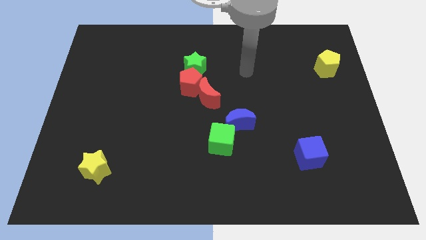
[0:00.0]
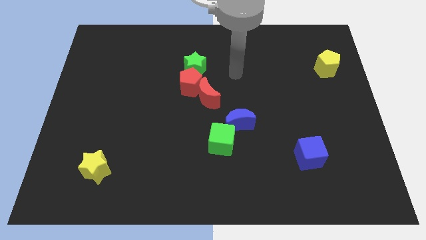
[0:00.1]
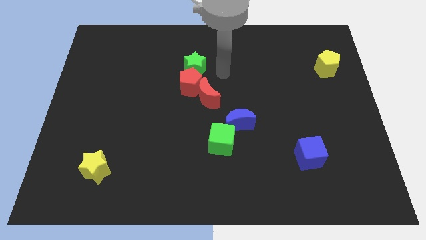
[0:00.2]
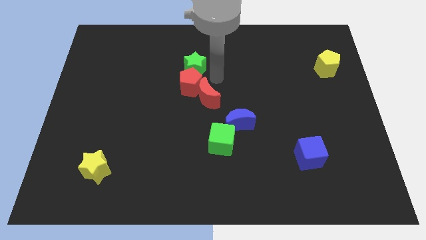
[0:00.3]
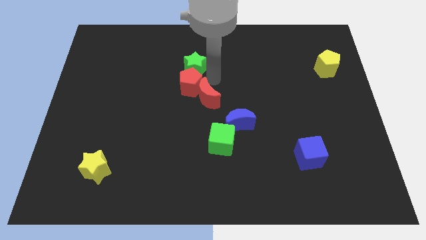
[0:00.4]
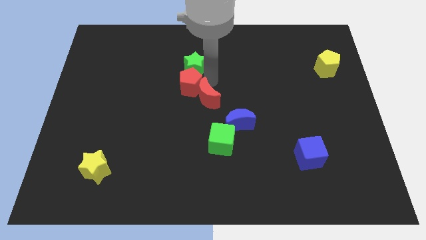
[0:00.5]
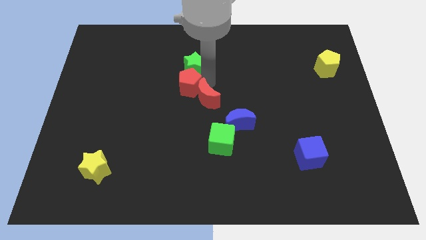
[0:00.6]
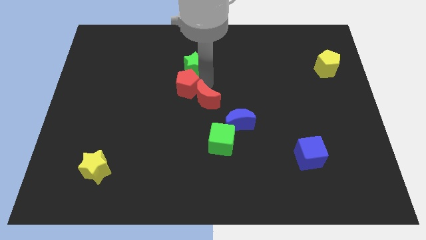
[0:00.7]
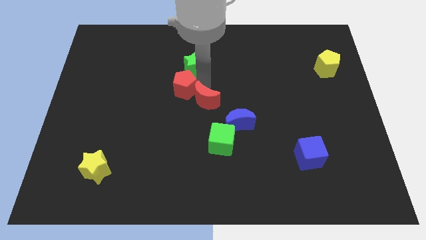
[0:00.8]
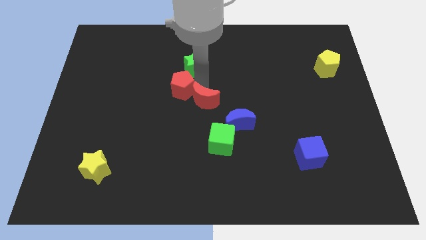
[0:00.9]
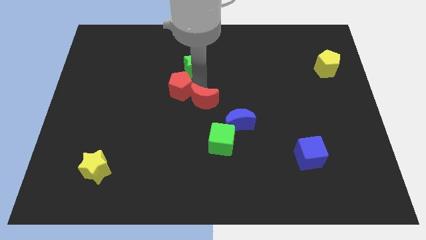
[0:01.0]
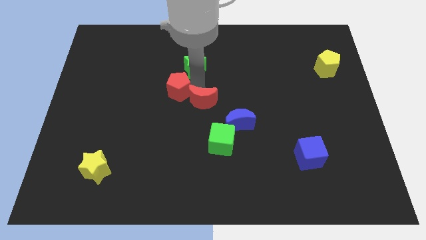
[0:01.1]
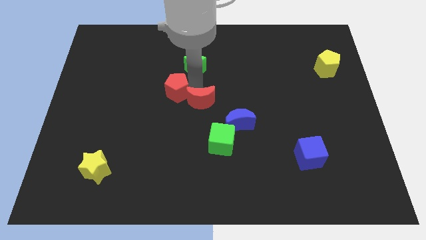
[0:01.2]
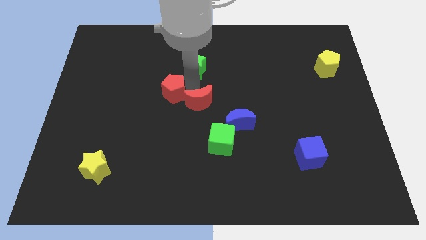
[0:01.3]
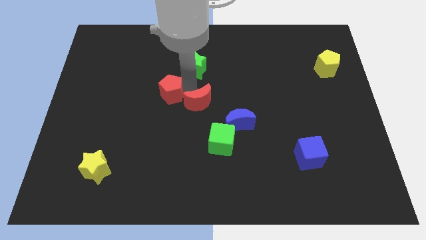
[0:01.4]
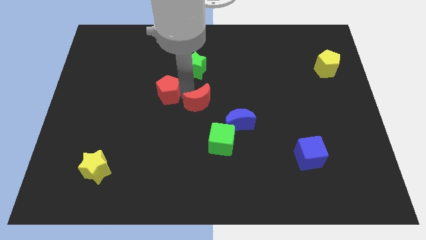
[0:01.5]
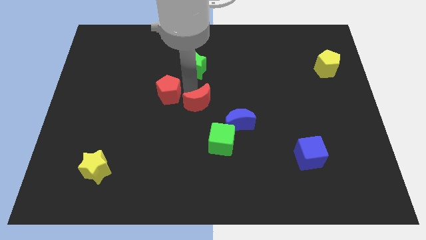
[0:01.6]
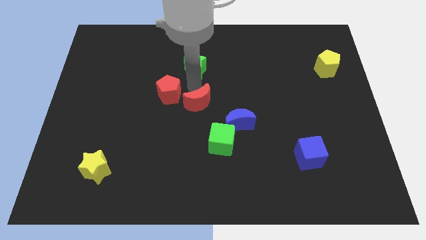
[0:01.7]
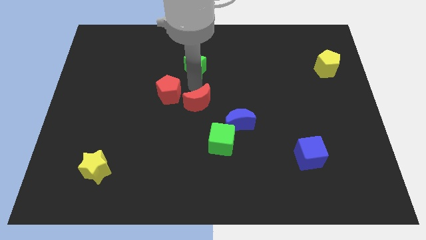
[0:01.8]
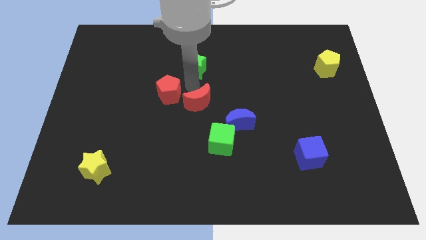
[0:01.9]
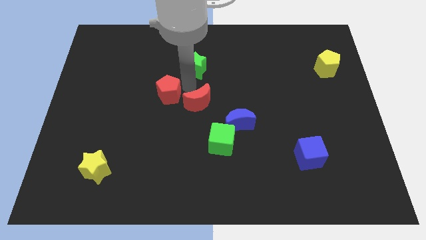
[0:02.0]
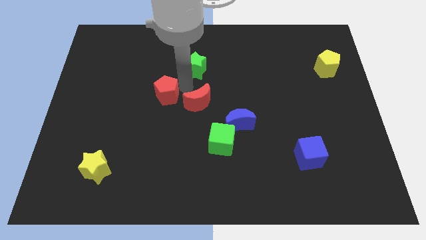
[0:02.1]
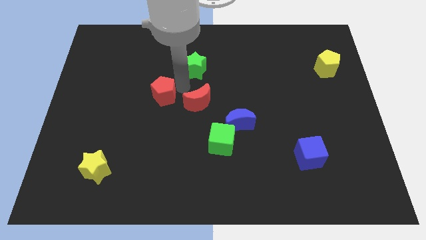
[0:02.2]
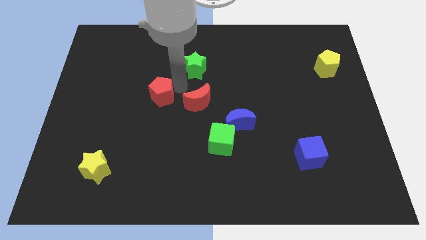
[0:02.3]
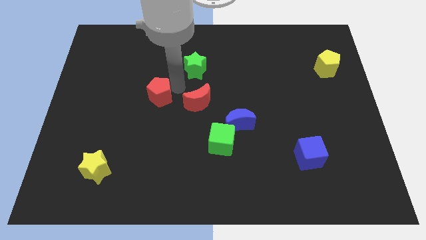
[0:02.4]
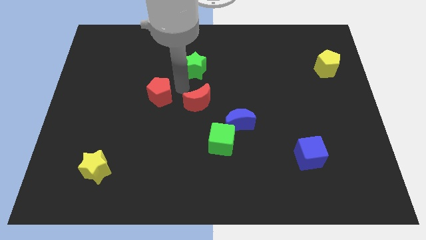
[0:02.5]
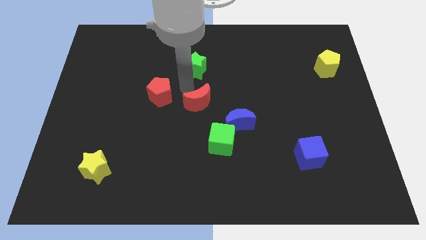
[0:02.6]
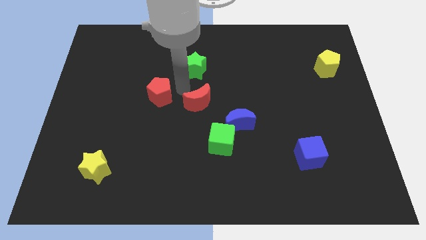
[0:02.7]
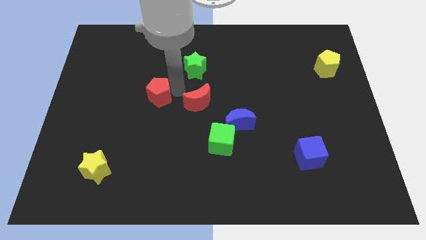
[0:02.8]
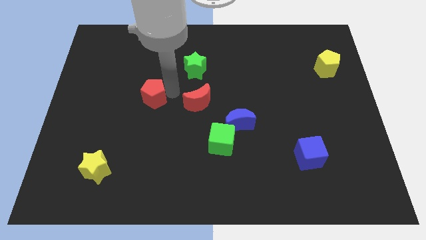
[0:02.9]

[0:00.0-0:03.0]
move the red pentagon away from the red moon and green star

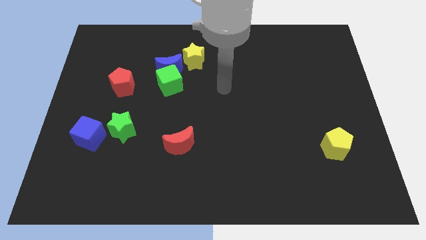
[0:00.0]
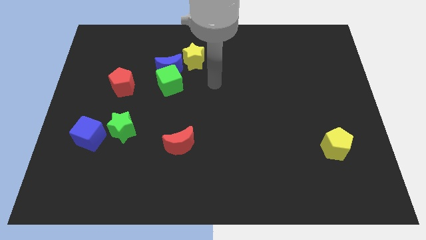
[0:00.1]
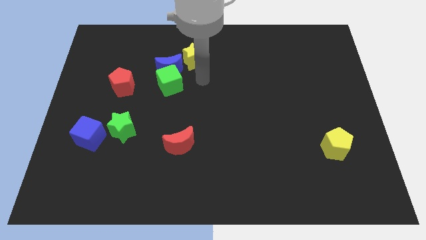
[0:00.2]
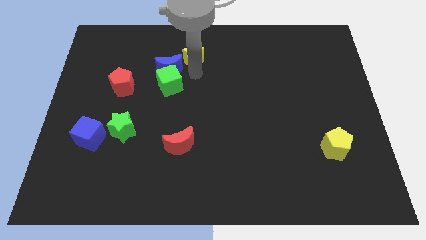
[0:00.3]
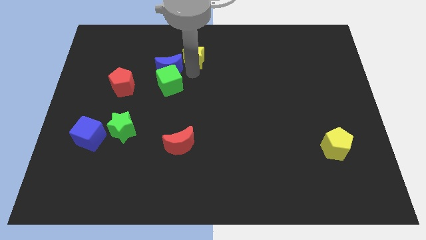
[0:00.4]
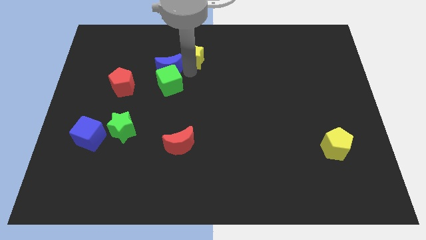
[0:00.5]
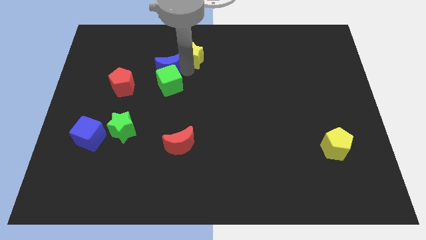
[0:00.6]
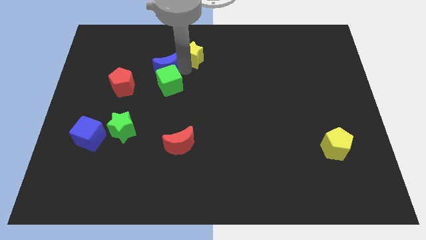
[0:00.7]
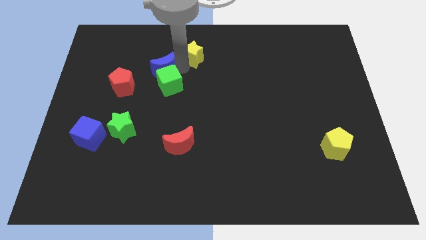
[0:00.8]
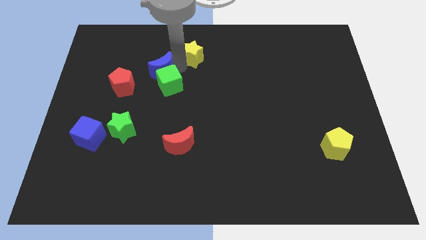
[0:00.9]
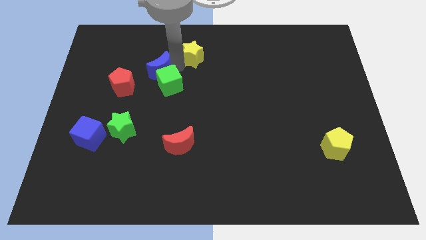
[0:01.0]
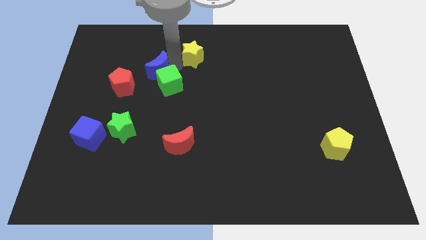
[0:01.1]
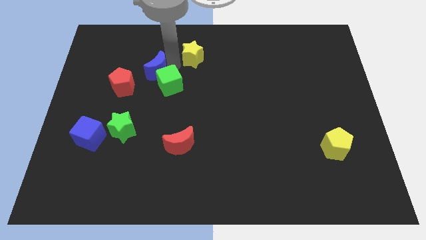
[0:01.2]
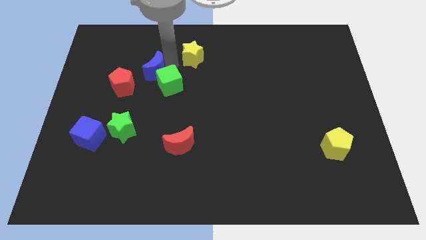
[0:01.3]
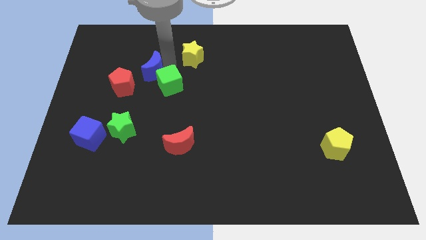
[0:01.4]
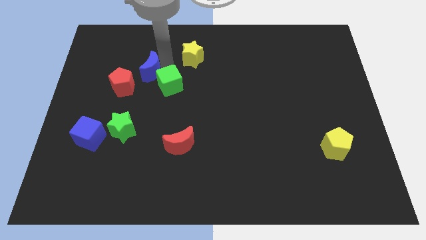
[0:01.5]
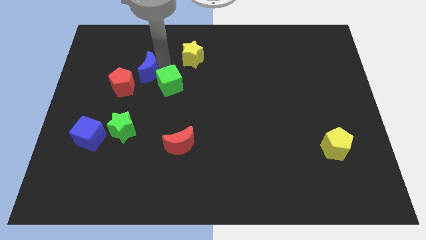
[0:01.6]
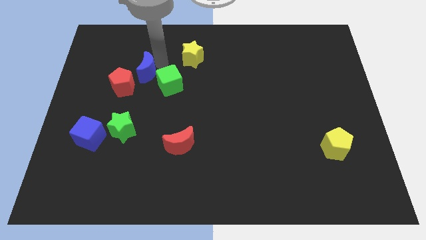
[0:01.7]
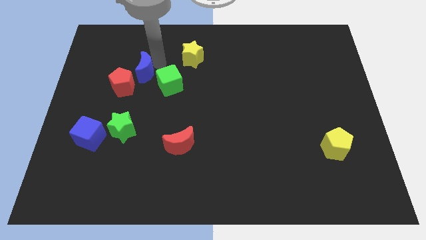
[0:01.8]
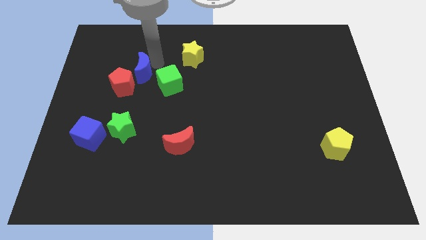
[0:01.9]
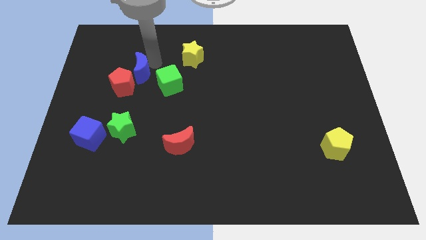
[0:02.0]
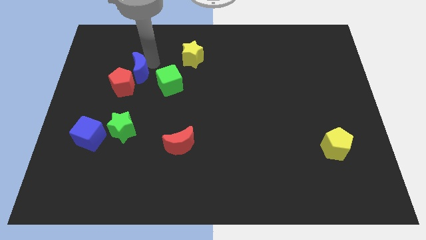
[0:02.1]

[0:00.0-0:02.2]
separate the blue moon from the green cube and yellow star

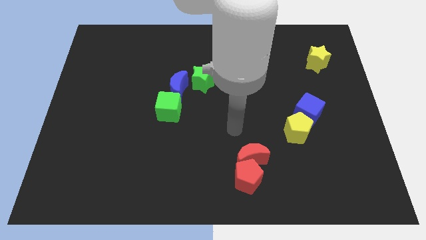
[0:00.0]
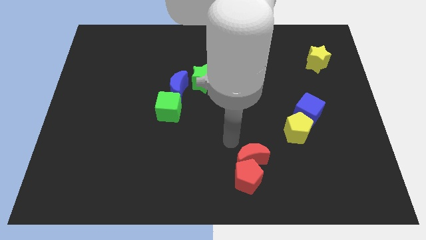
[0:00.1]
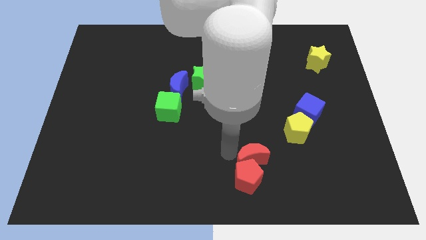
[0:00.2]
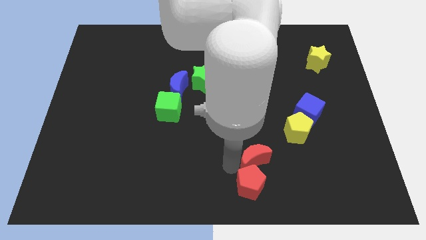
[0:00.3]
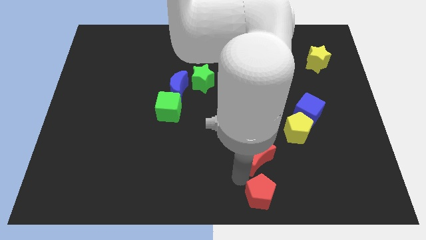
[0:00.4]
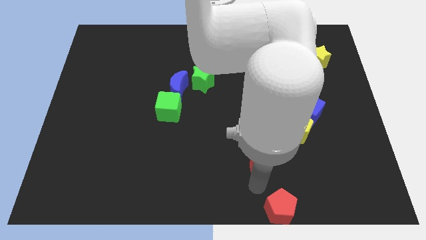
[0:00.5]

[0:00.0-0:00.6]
move the red moon away from the red pentagon

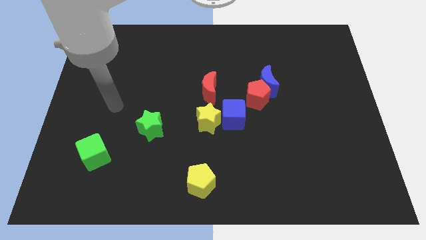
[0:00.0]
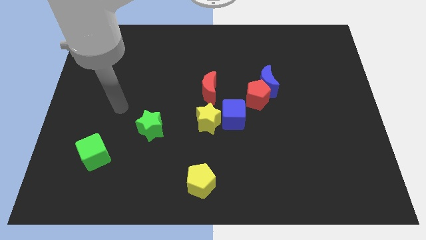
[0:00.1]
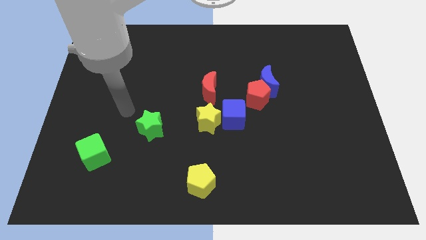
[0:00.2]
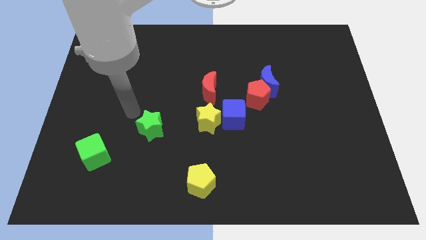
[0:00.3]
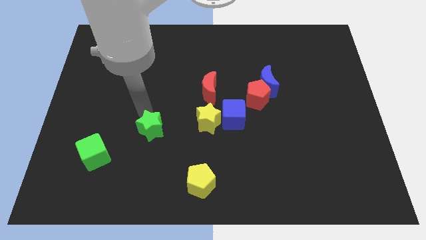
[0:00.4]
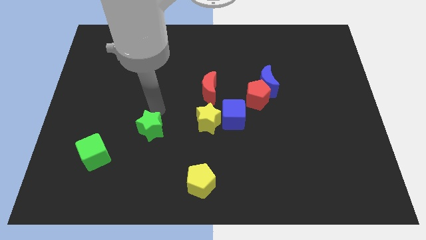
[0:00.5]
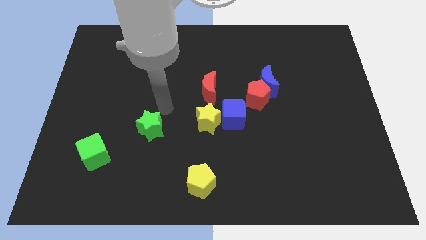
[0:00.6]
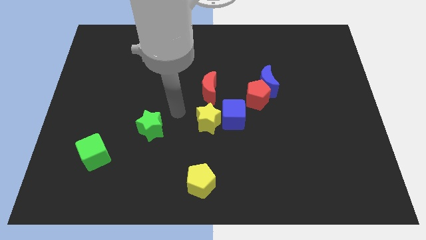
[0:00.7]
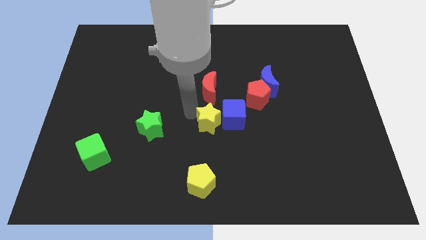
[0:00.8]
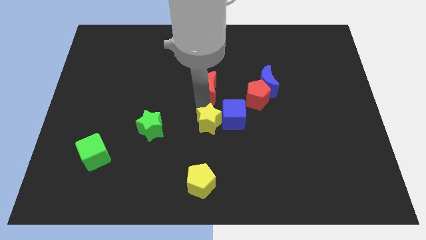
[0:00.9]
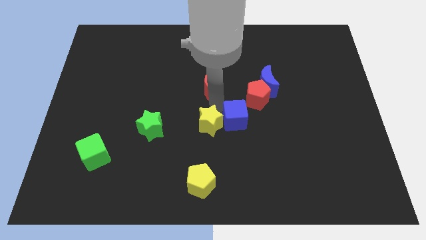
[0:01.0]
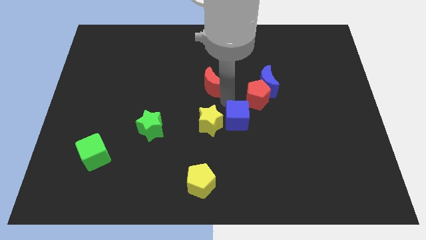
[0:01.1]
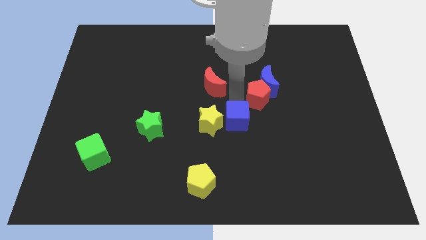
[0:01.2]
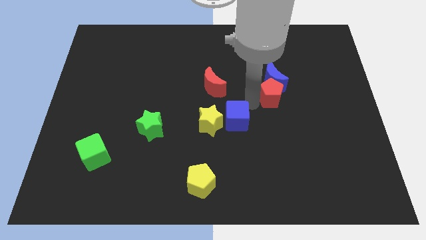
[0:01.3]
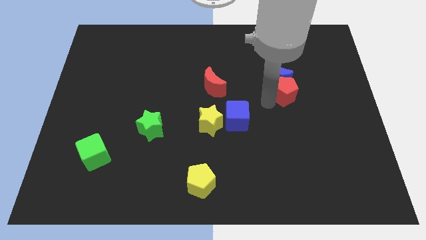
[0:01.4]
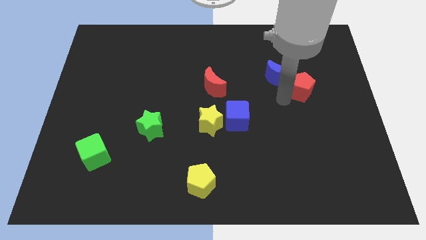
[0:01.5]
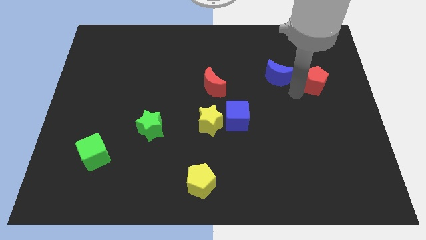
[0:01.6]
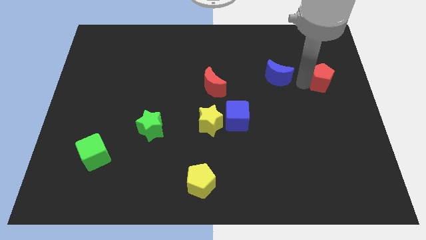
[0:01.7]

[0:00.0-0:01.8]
pull the blue moon apart from the red pentagon

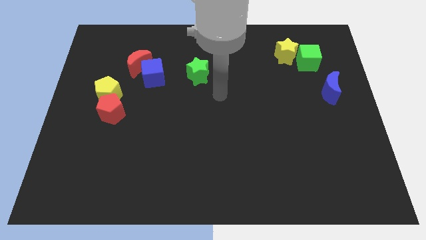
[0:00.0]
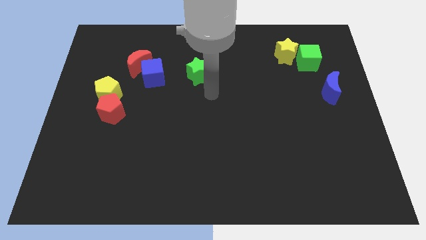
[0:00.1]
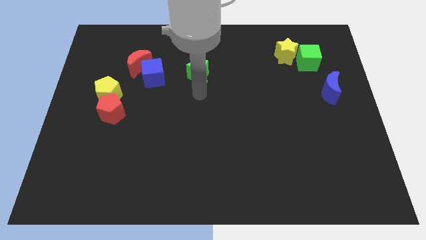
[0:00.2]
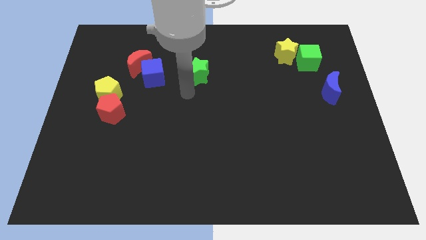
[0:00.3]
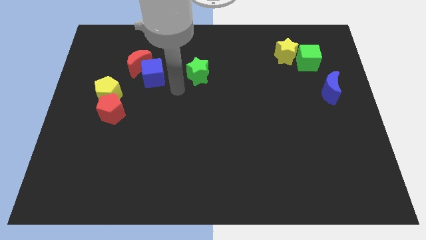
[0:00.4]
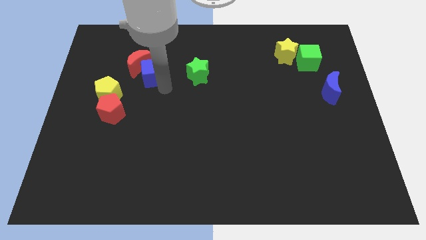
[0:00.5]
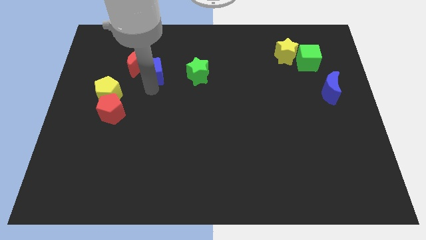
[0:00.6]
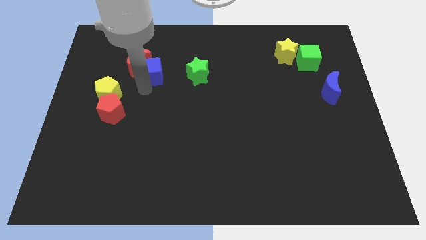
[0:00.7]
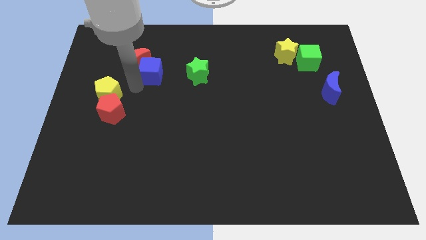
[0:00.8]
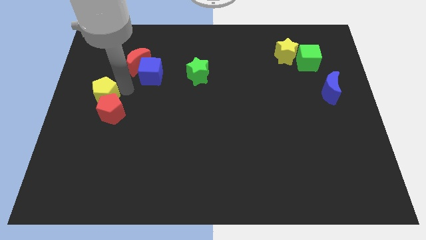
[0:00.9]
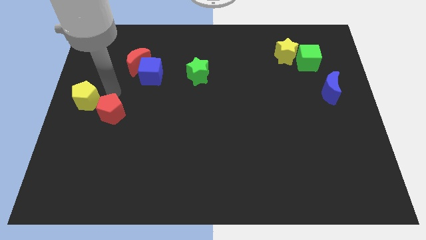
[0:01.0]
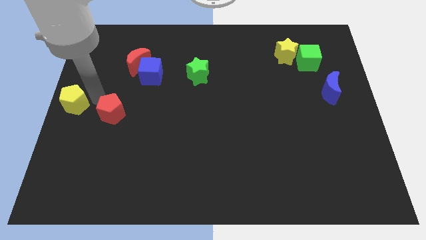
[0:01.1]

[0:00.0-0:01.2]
pull the red pentagon apart from the yellow pentagon

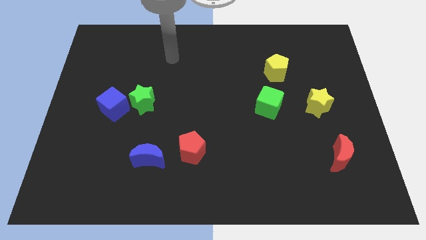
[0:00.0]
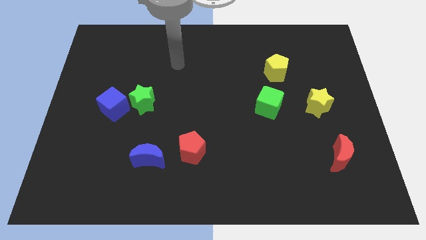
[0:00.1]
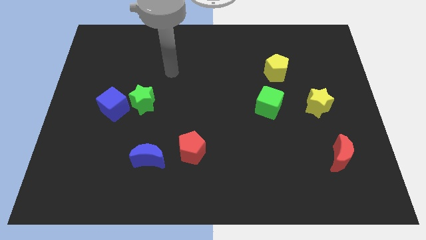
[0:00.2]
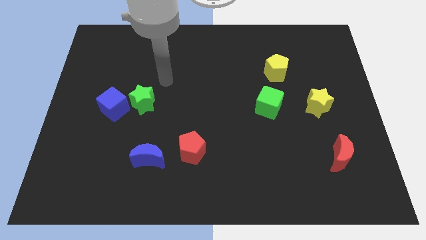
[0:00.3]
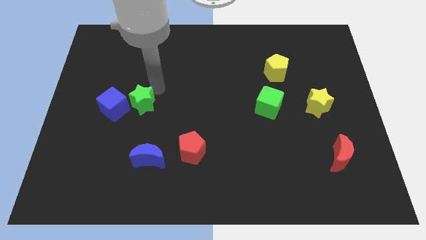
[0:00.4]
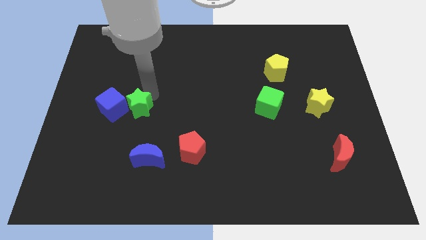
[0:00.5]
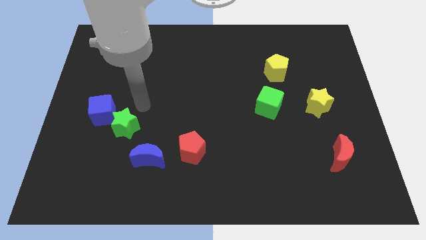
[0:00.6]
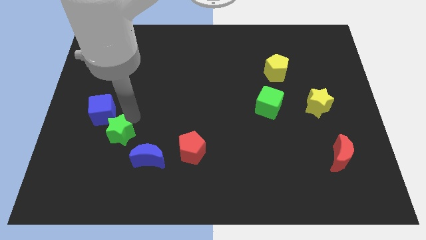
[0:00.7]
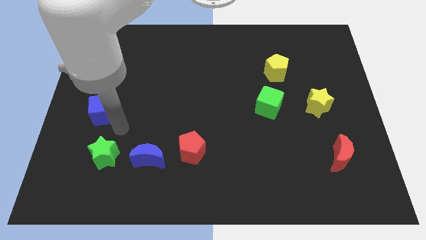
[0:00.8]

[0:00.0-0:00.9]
move the blue cube away from the green star
